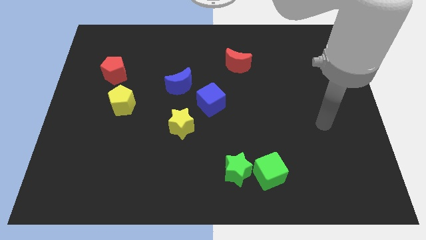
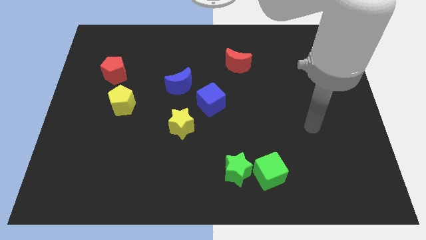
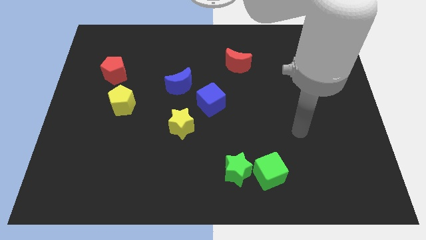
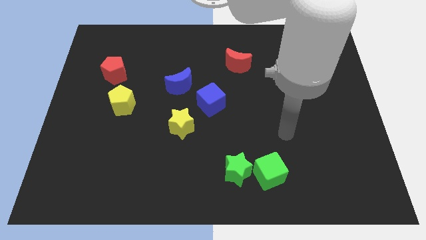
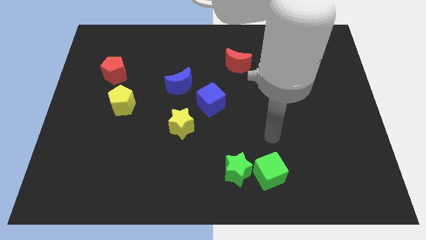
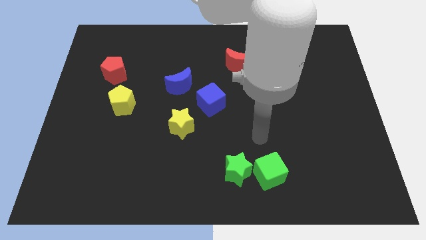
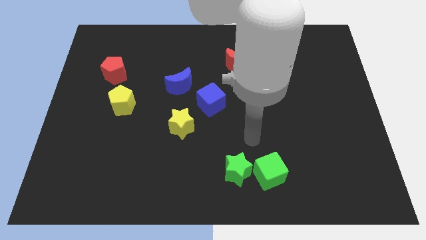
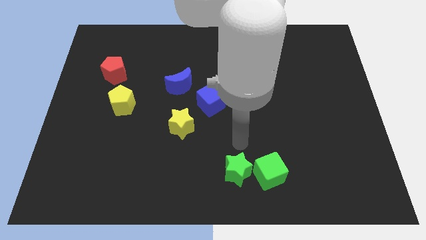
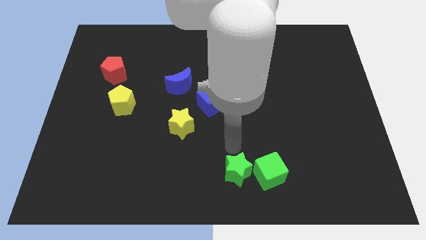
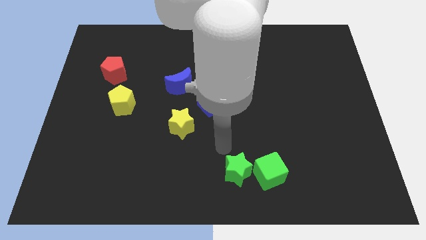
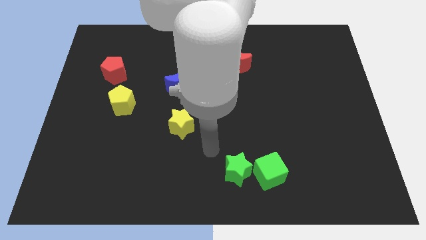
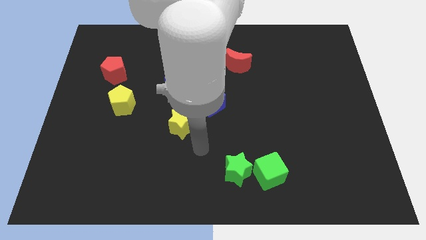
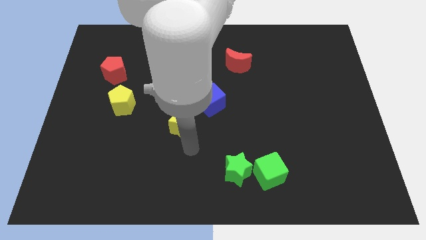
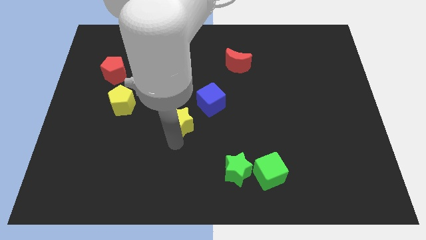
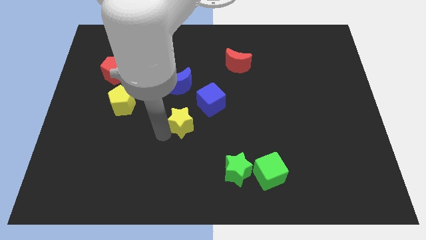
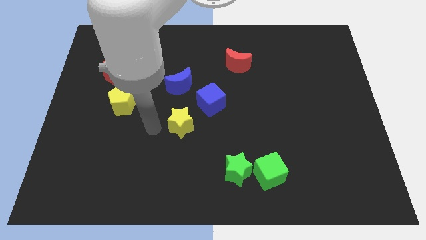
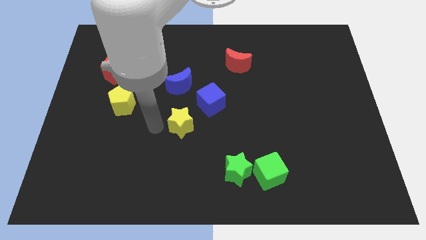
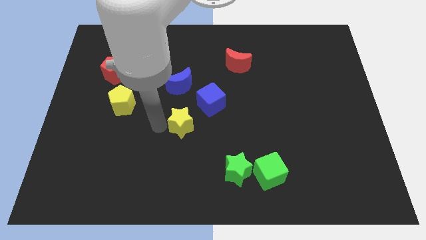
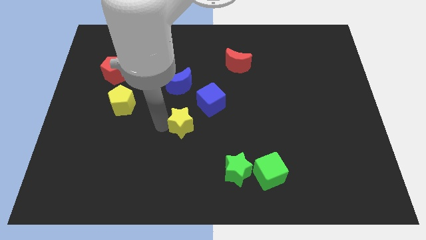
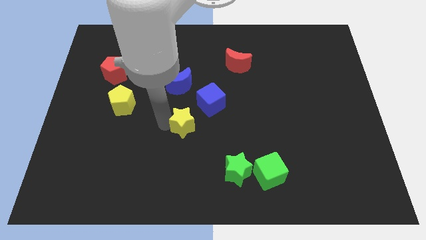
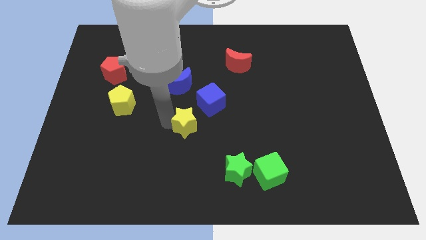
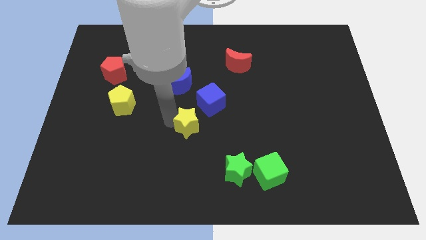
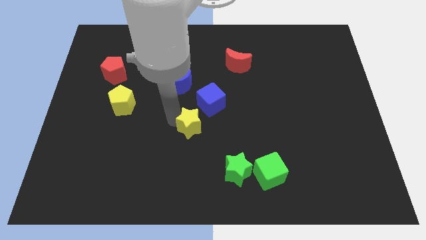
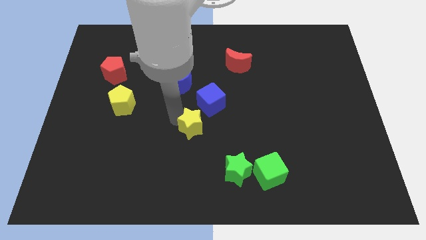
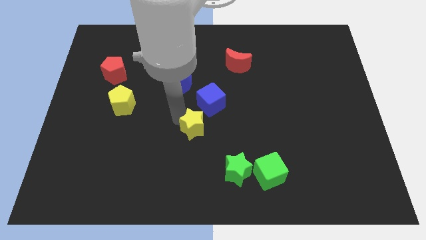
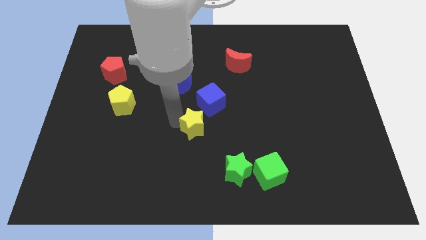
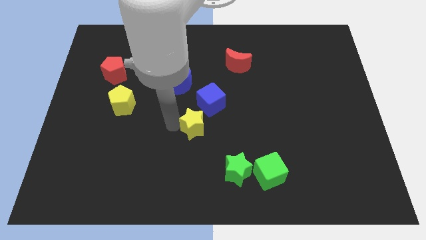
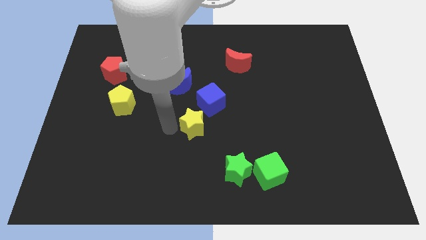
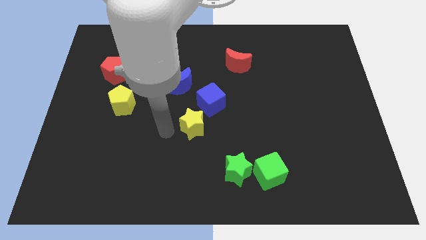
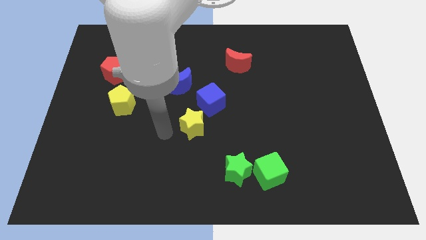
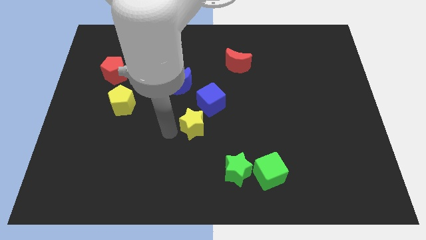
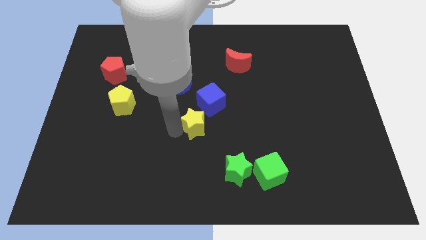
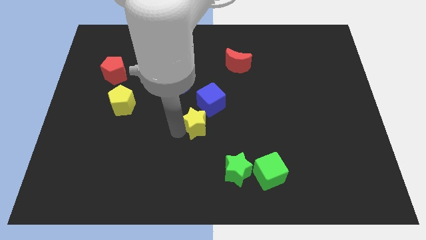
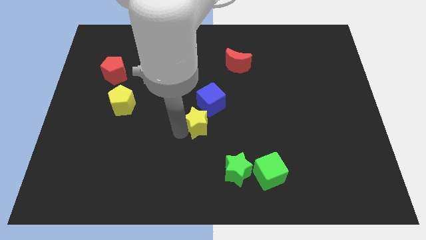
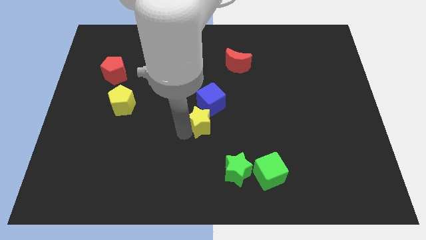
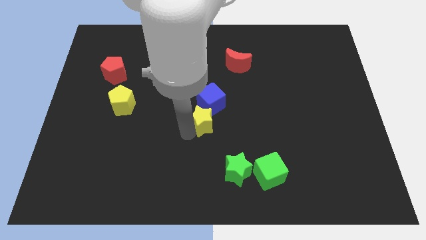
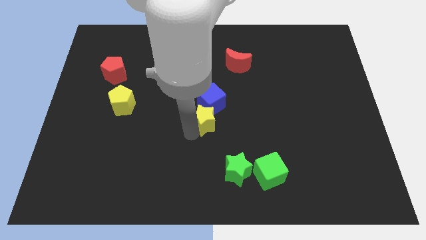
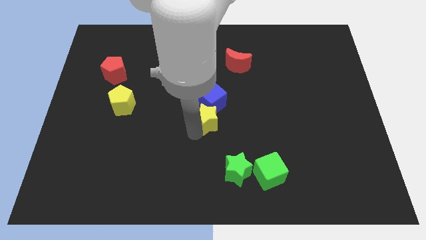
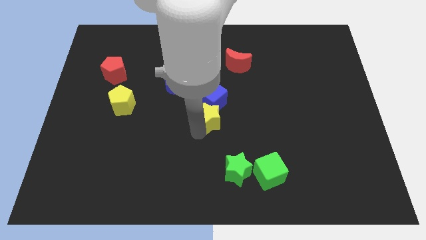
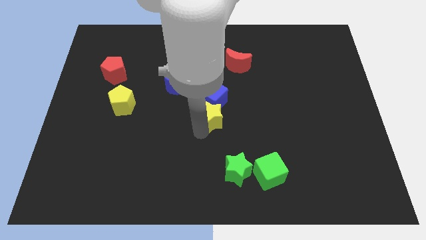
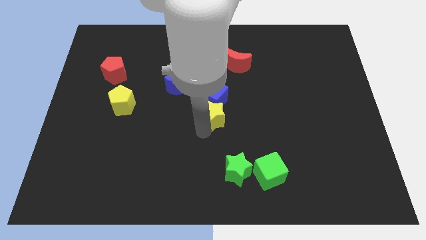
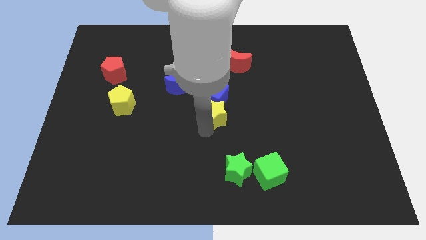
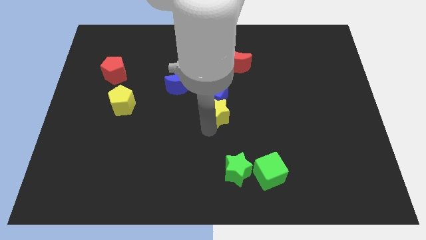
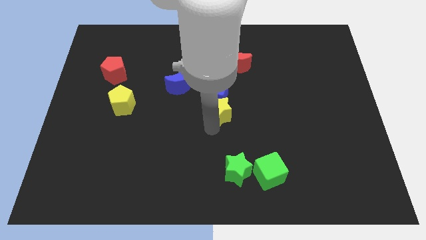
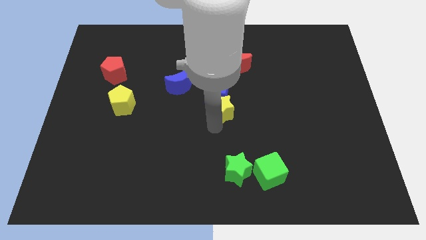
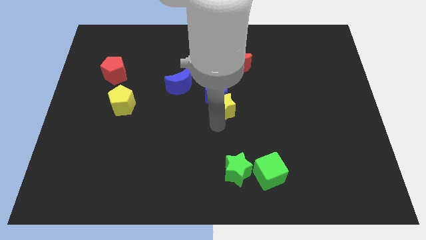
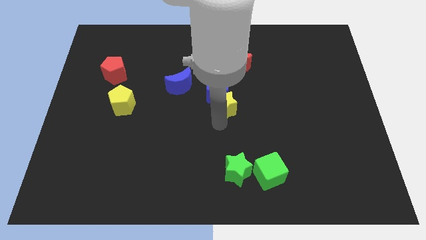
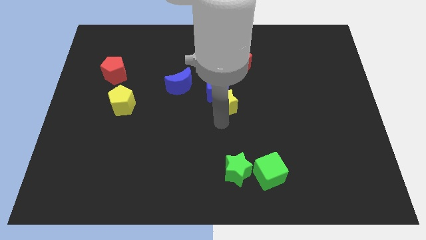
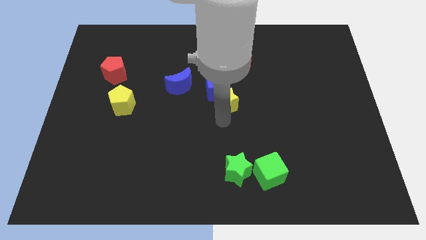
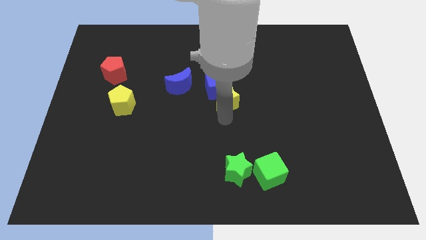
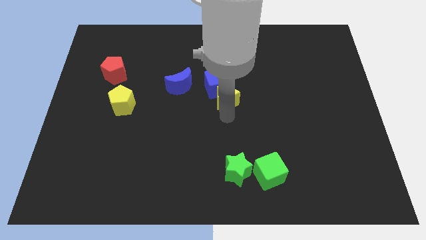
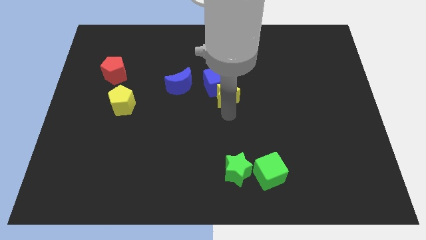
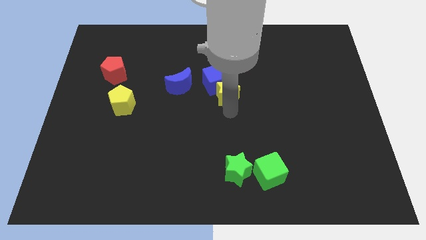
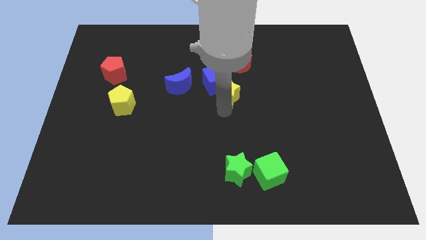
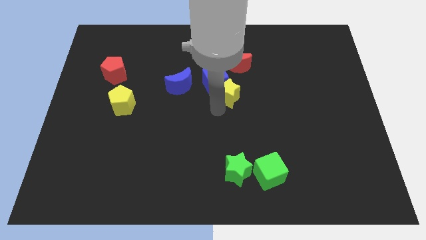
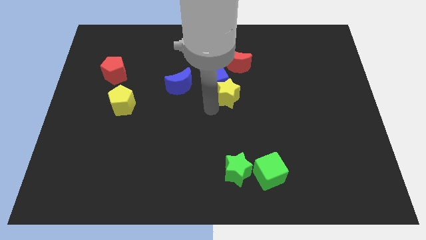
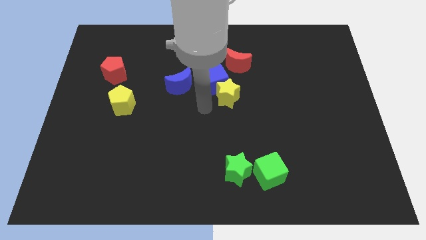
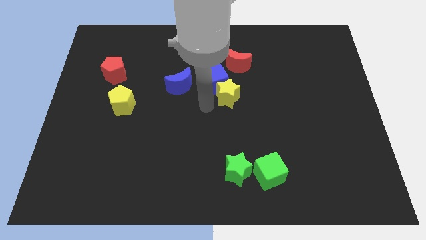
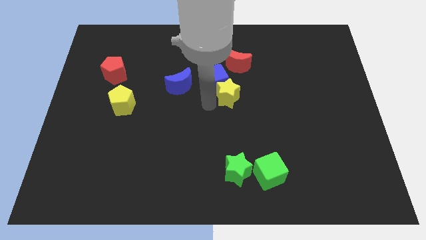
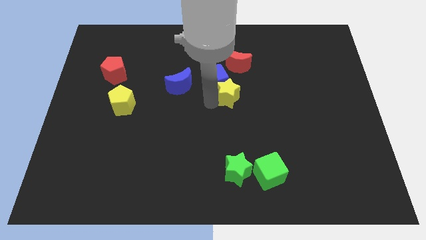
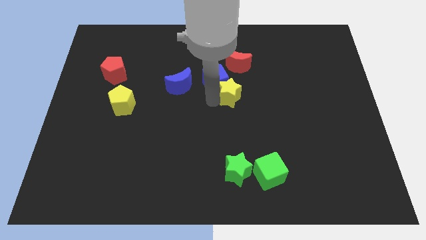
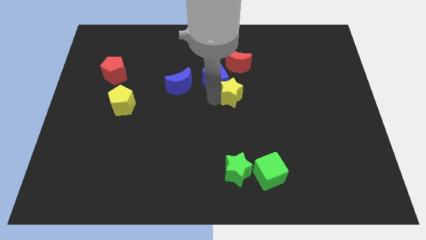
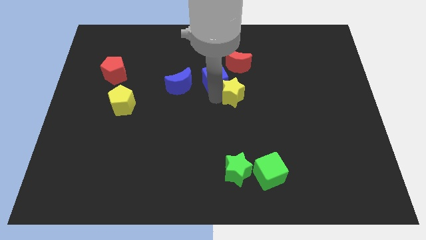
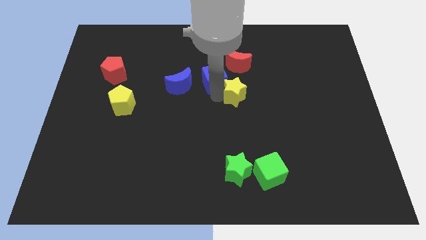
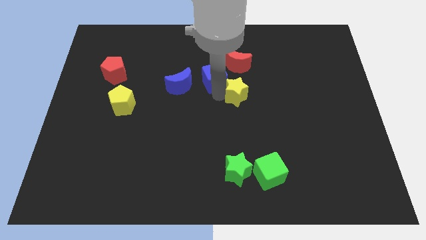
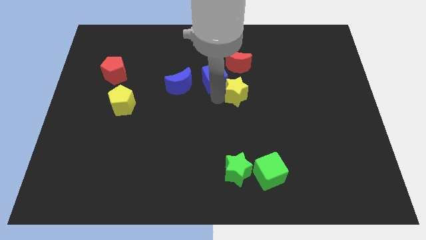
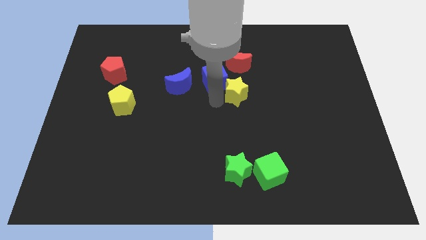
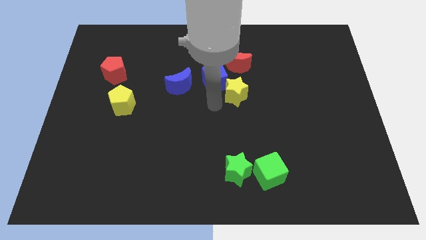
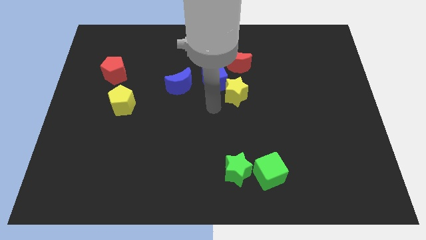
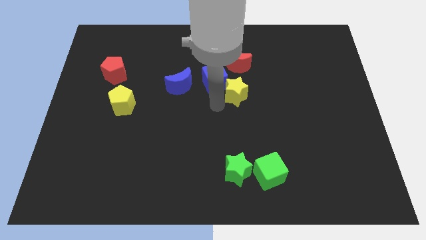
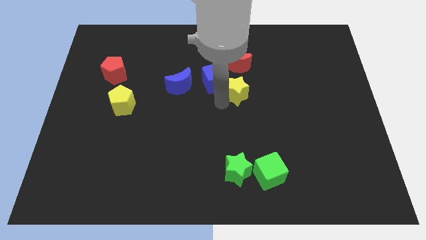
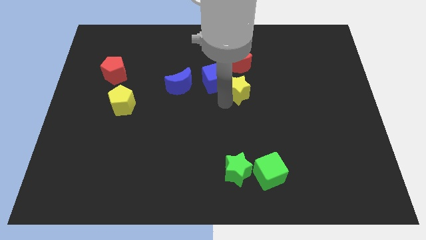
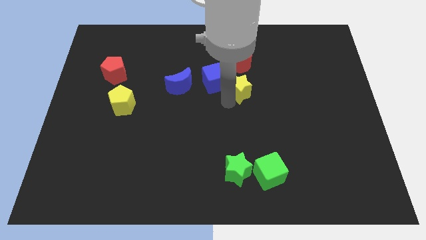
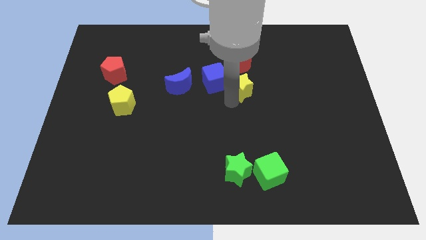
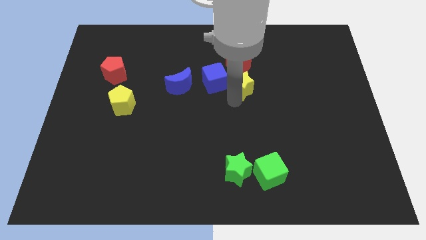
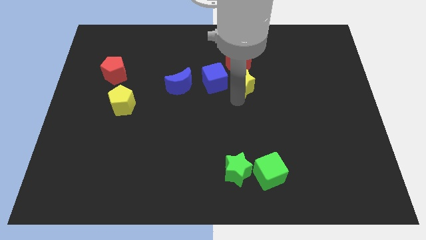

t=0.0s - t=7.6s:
put the yellow star diagonally down and to the right of the red moon

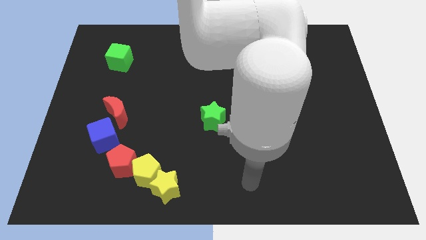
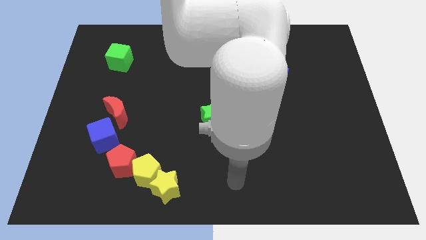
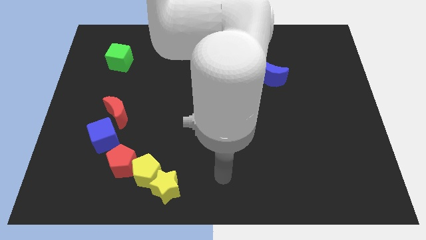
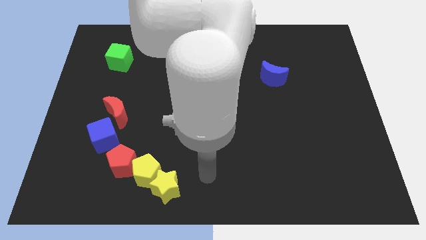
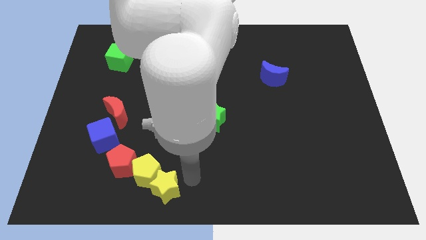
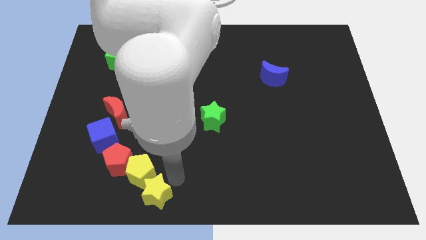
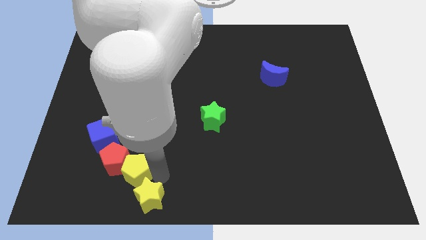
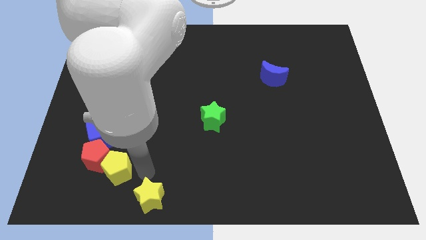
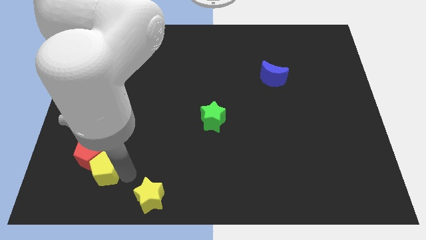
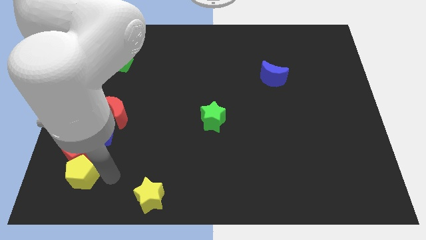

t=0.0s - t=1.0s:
push the red pentagon to the bottom left of the red moon
